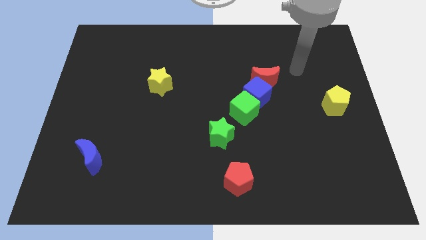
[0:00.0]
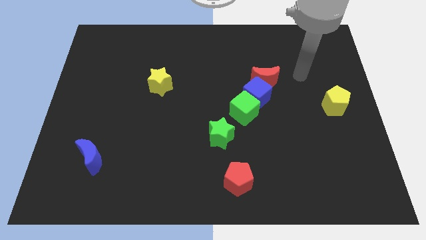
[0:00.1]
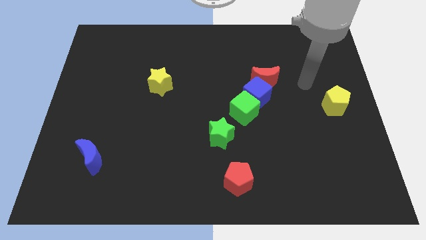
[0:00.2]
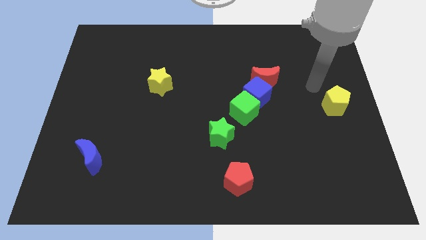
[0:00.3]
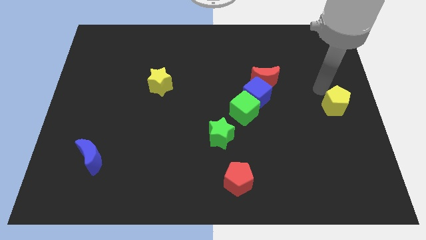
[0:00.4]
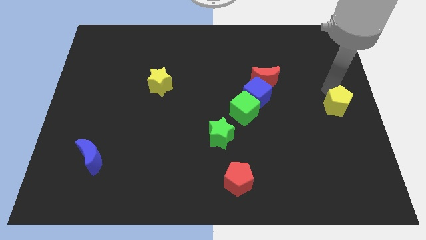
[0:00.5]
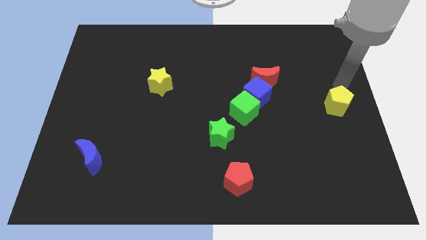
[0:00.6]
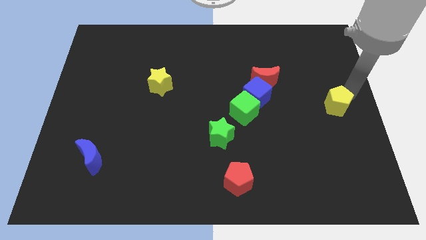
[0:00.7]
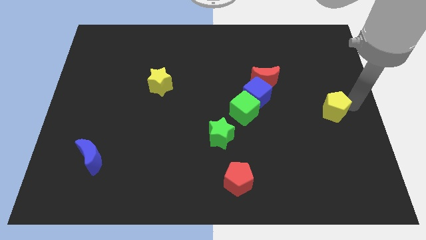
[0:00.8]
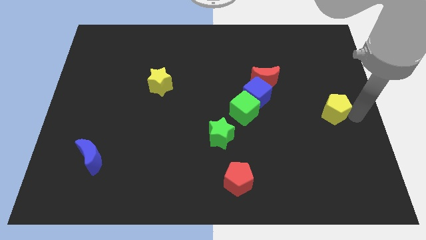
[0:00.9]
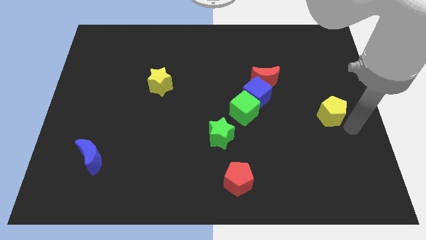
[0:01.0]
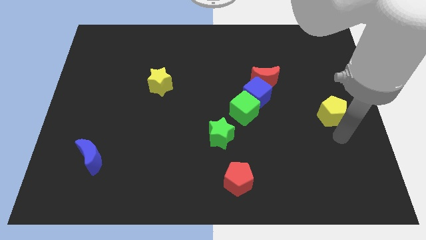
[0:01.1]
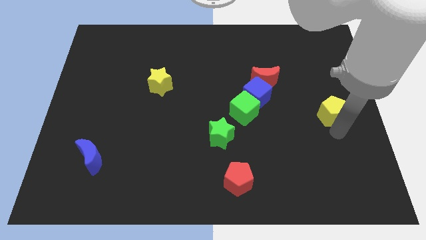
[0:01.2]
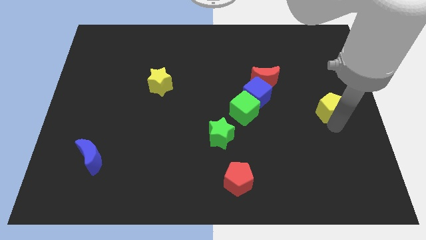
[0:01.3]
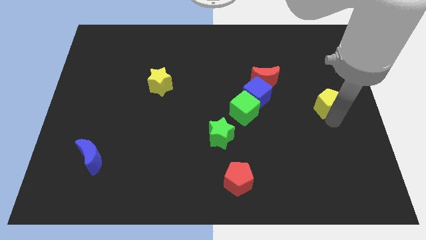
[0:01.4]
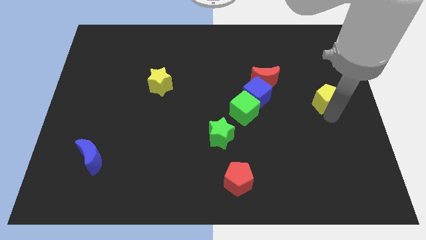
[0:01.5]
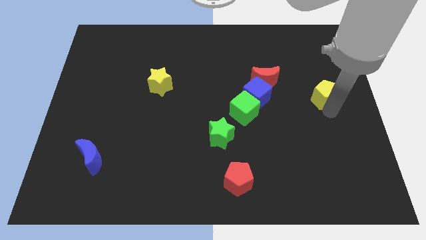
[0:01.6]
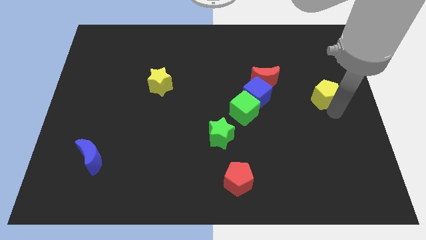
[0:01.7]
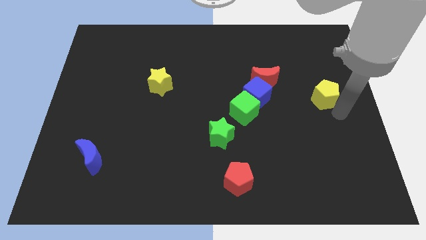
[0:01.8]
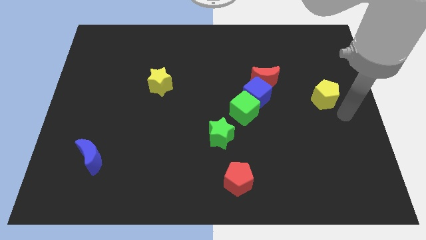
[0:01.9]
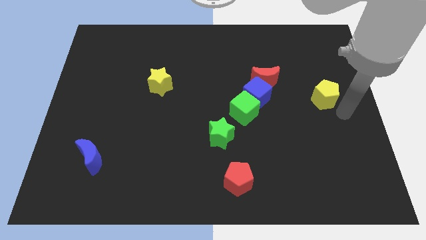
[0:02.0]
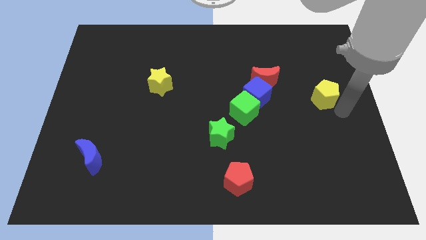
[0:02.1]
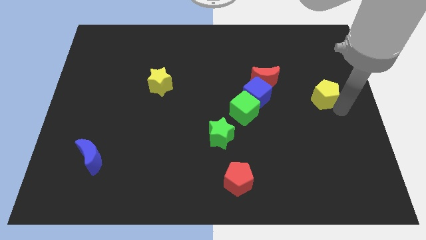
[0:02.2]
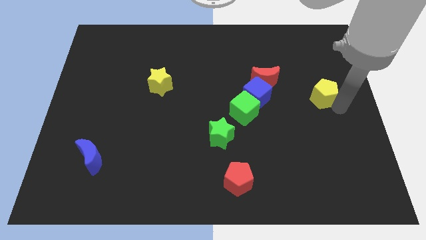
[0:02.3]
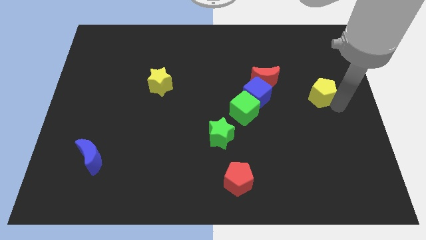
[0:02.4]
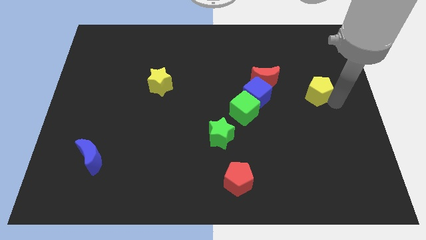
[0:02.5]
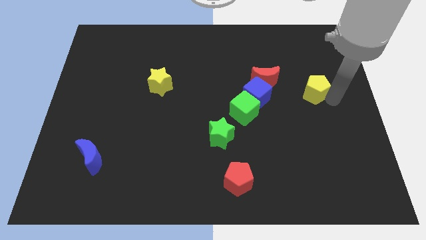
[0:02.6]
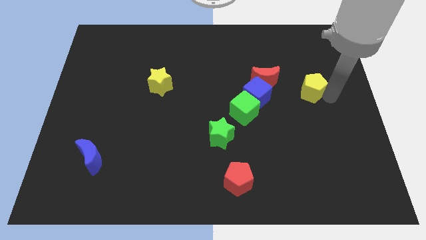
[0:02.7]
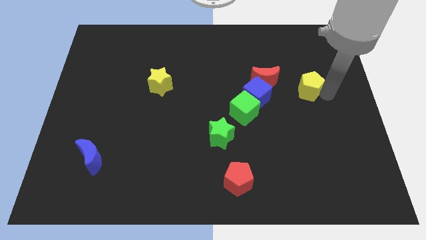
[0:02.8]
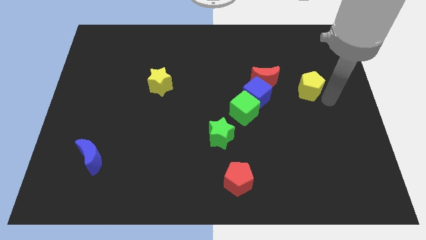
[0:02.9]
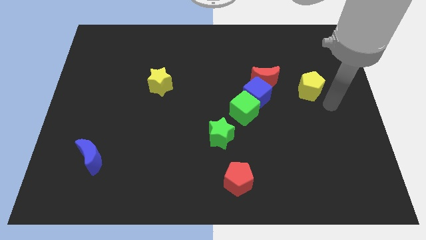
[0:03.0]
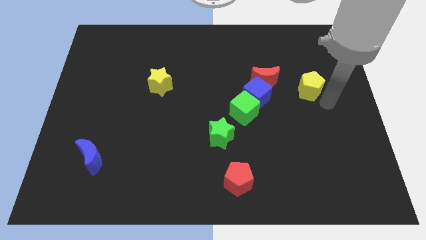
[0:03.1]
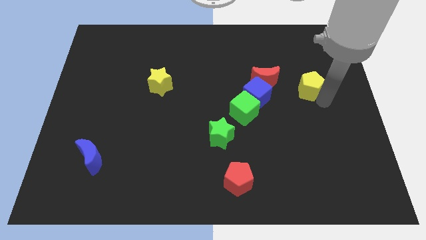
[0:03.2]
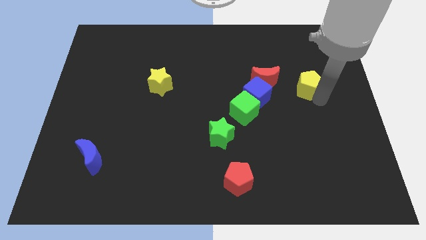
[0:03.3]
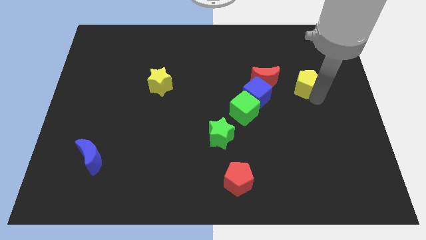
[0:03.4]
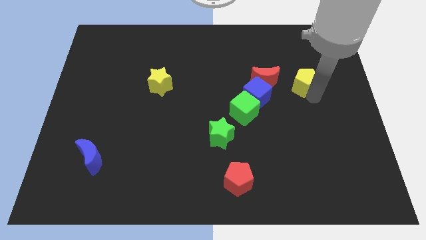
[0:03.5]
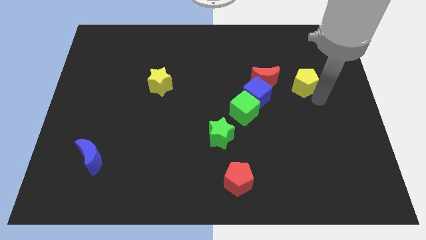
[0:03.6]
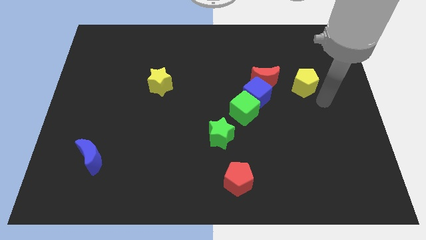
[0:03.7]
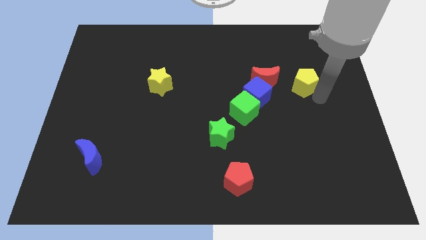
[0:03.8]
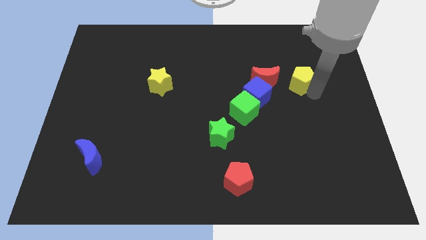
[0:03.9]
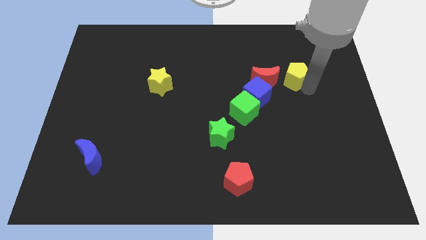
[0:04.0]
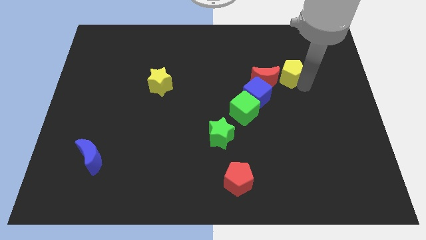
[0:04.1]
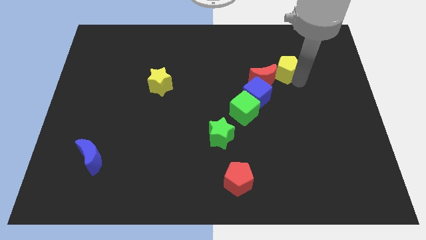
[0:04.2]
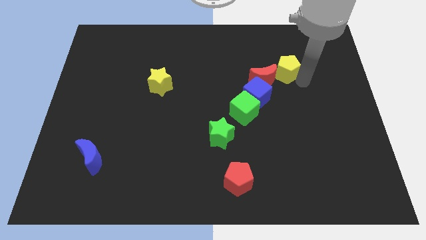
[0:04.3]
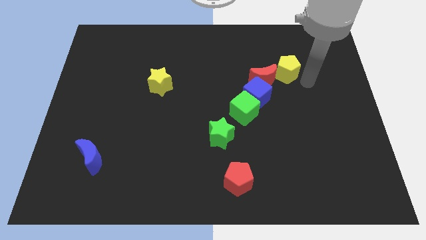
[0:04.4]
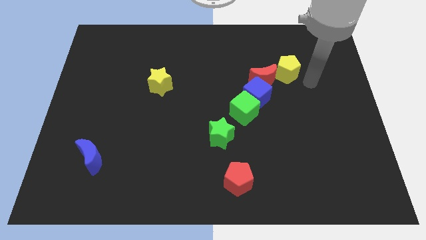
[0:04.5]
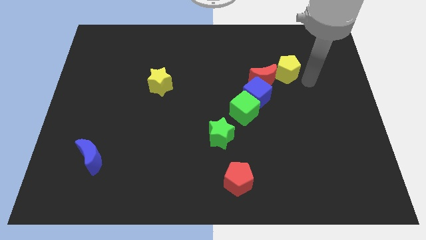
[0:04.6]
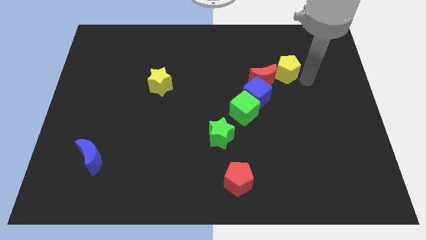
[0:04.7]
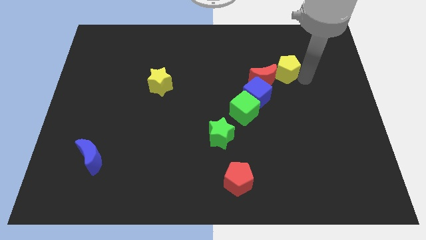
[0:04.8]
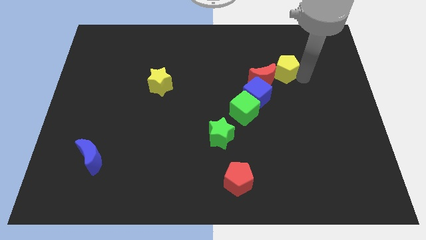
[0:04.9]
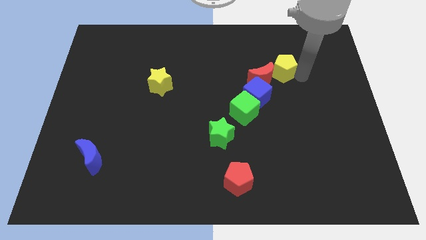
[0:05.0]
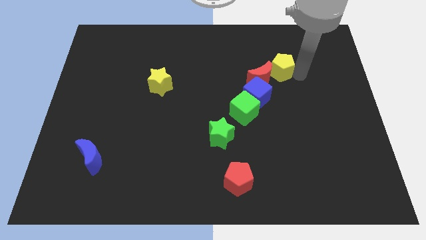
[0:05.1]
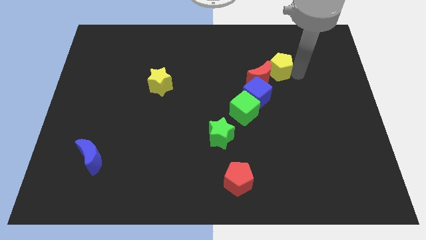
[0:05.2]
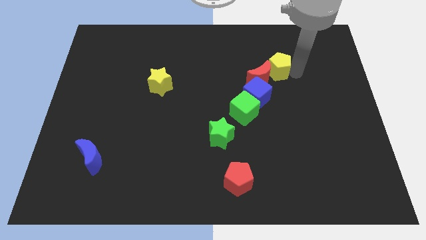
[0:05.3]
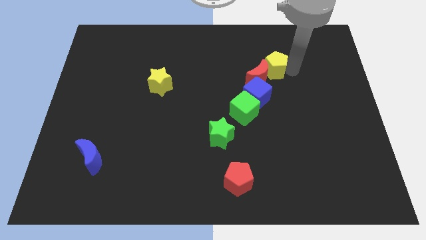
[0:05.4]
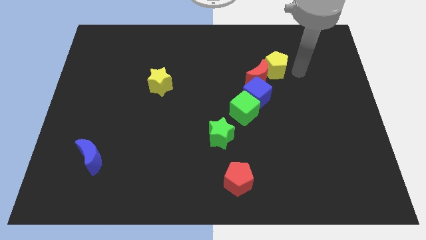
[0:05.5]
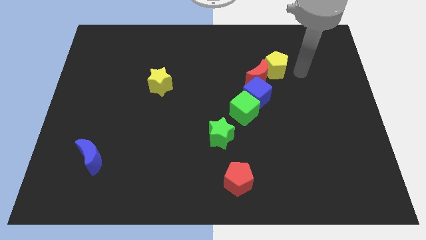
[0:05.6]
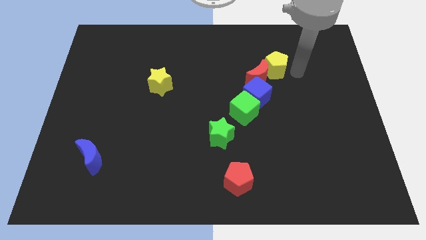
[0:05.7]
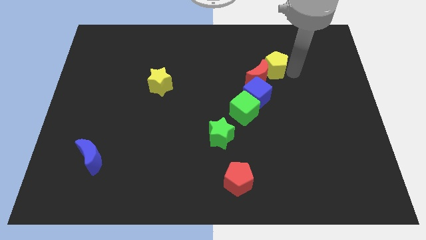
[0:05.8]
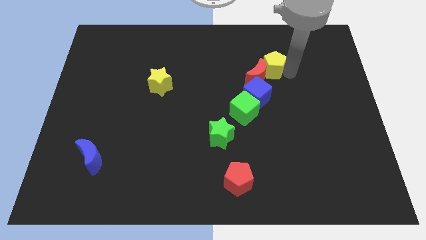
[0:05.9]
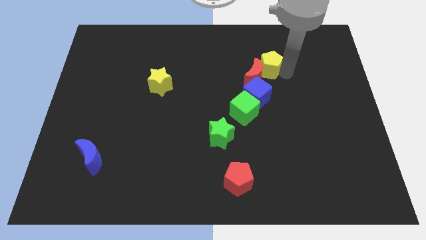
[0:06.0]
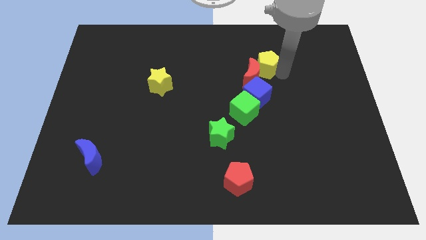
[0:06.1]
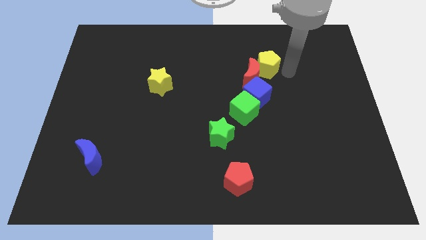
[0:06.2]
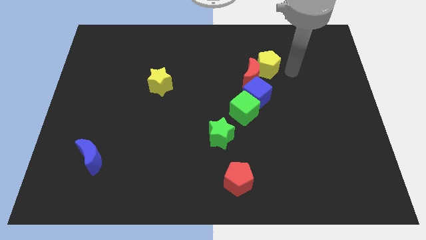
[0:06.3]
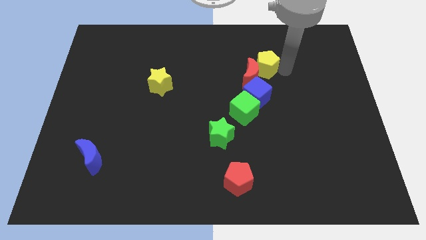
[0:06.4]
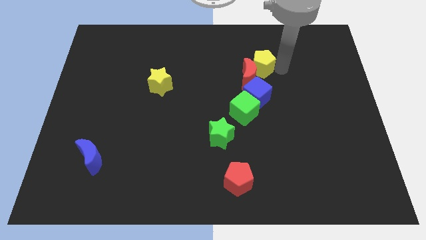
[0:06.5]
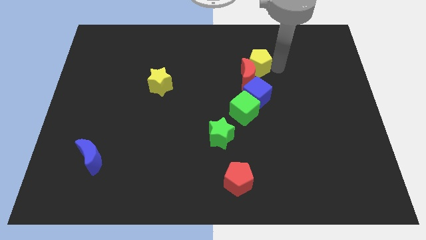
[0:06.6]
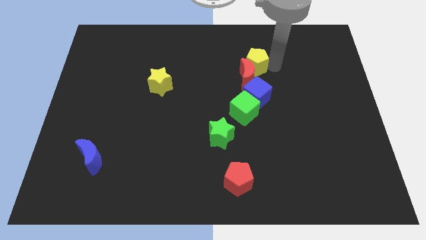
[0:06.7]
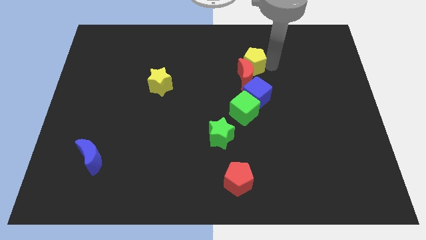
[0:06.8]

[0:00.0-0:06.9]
push the yellow pentagon to the top left side of the red moon

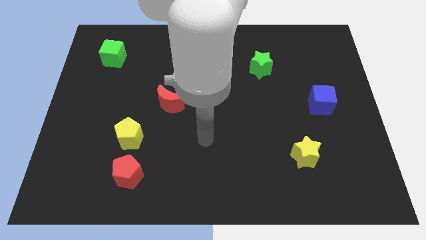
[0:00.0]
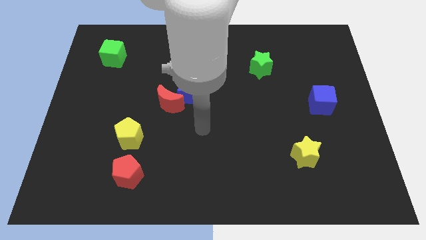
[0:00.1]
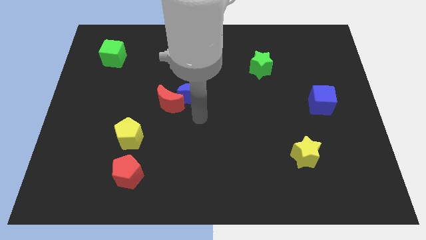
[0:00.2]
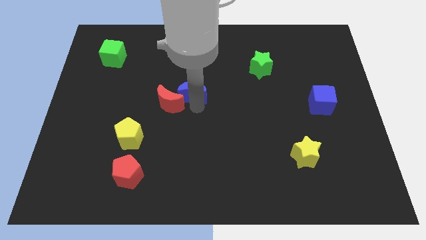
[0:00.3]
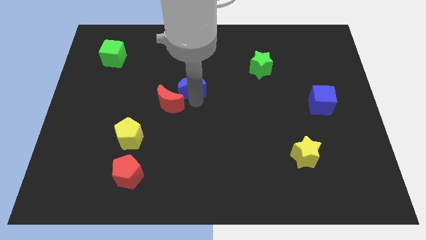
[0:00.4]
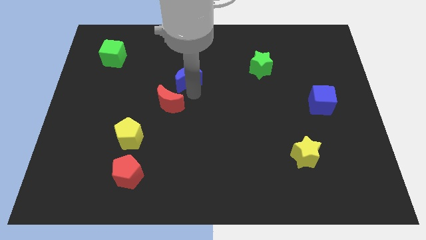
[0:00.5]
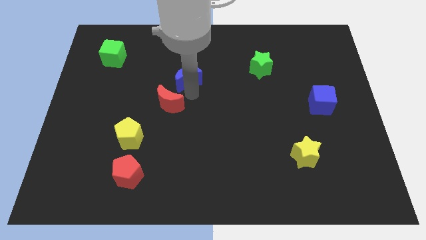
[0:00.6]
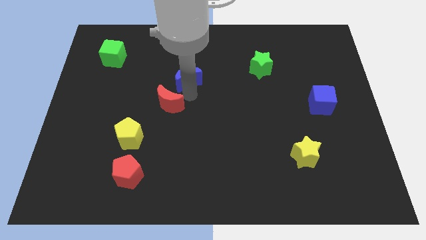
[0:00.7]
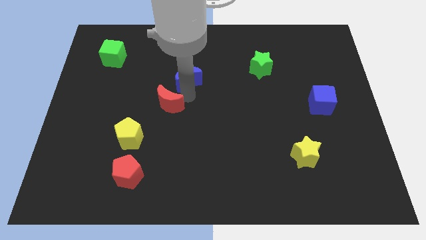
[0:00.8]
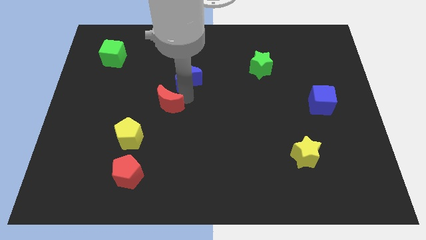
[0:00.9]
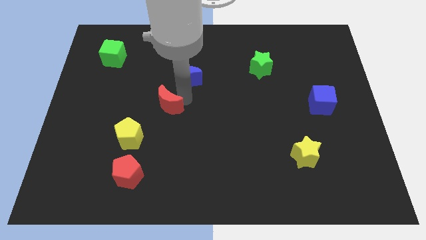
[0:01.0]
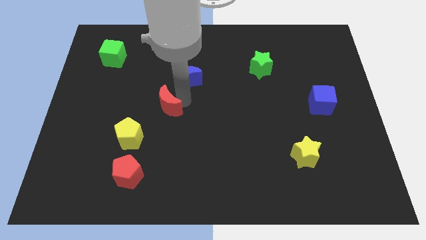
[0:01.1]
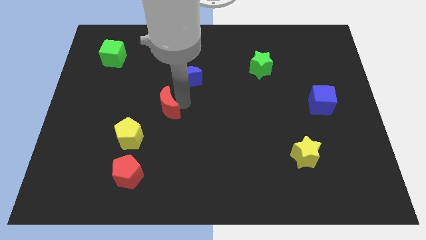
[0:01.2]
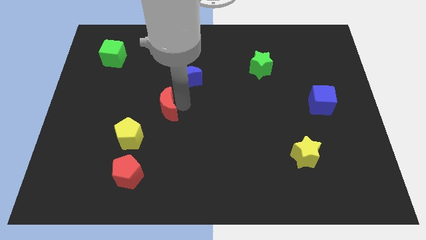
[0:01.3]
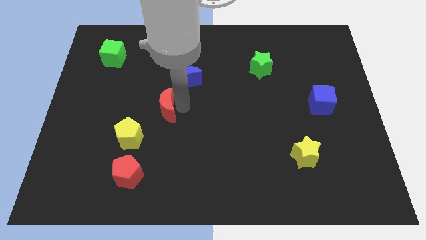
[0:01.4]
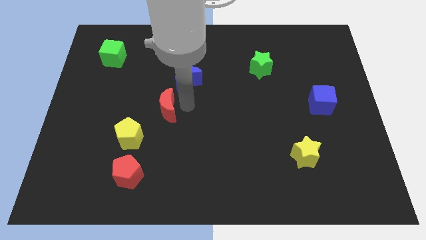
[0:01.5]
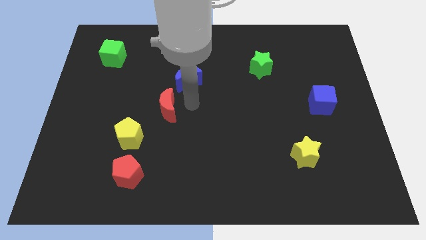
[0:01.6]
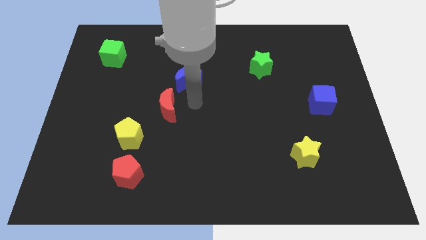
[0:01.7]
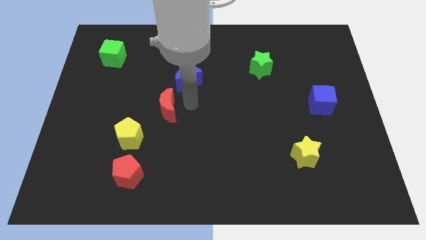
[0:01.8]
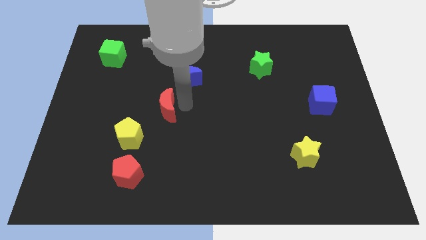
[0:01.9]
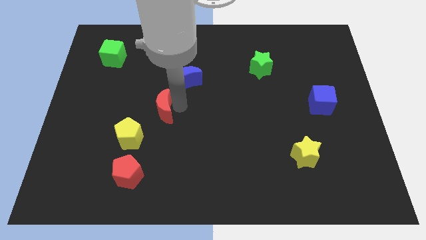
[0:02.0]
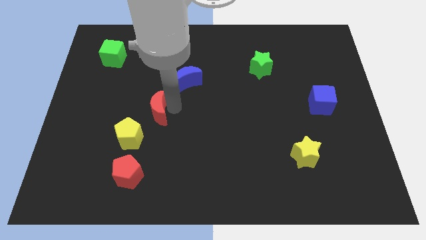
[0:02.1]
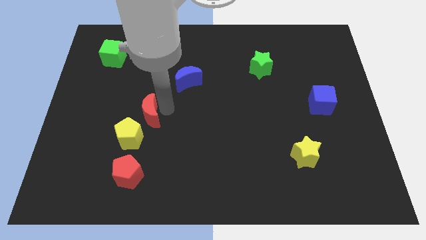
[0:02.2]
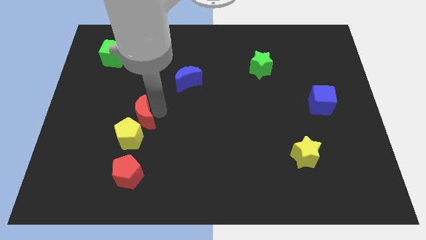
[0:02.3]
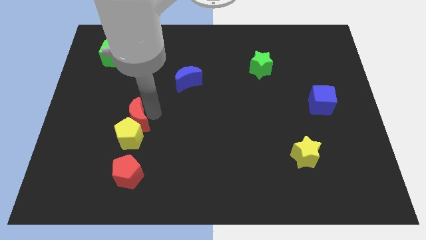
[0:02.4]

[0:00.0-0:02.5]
put the red moon to the top left of the yellow pentagon
